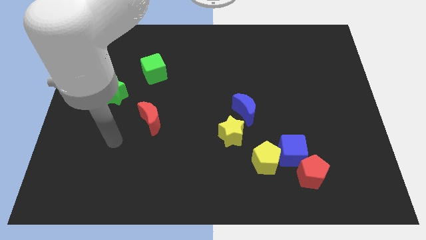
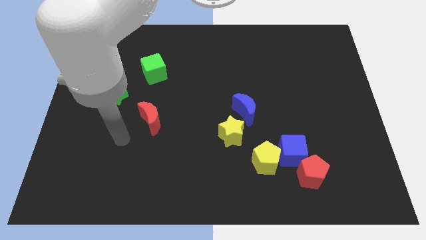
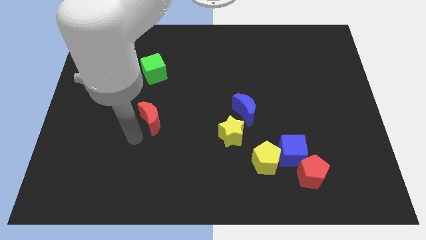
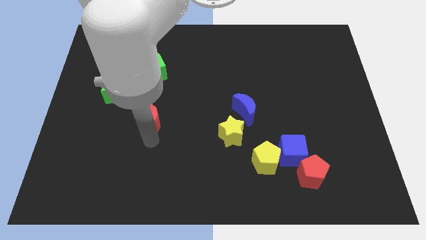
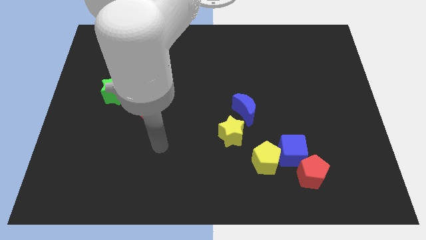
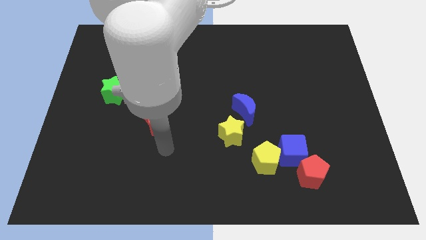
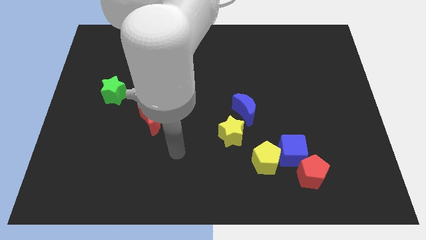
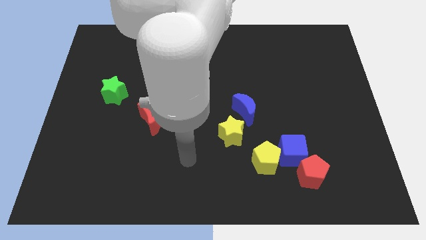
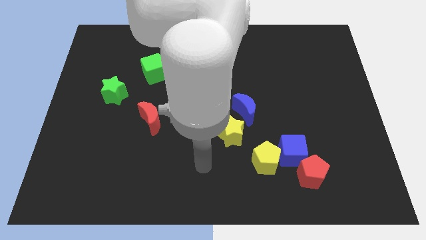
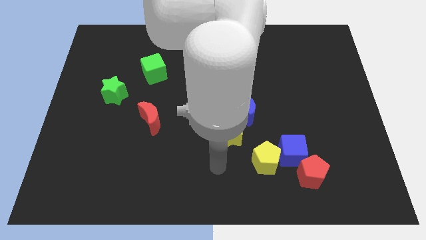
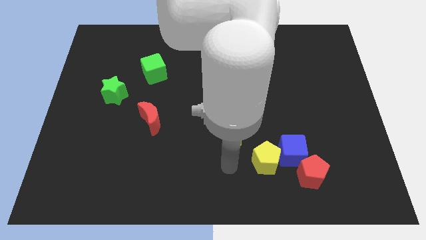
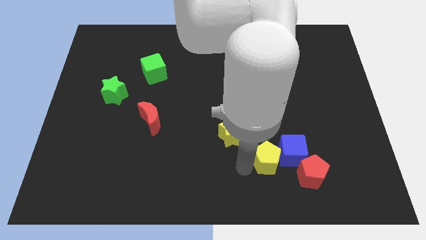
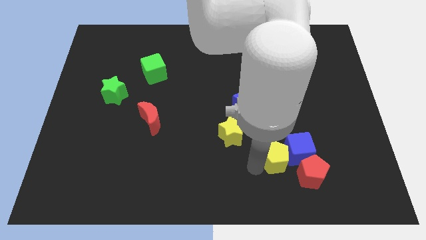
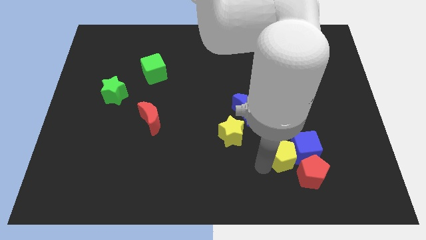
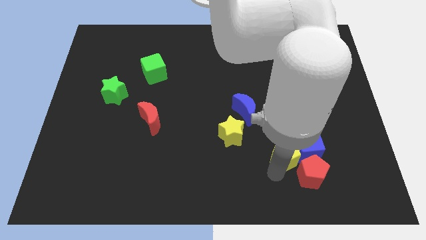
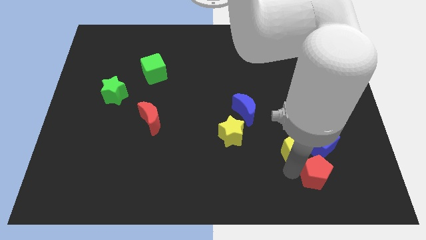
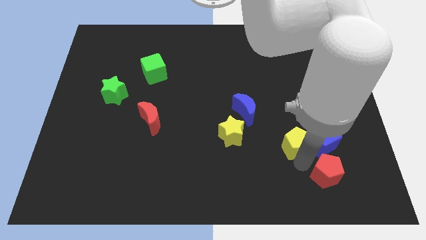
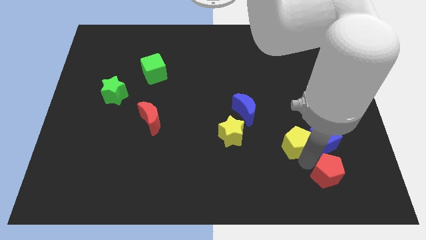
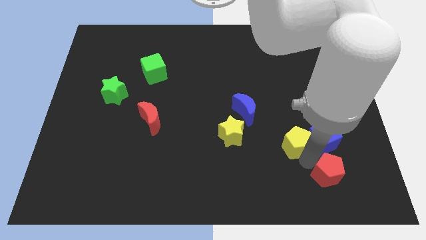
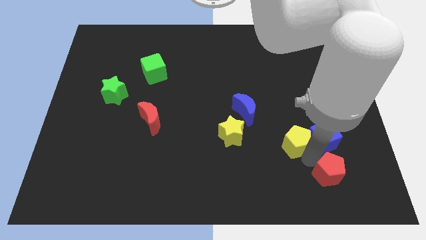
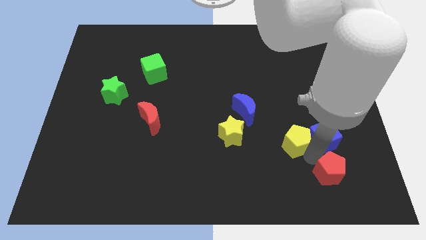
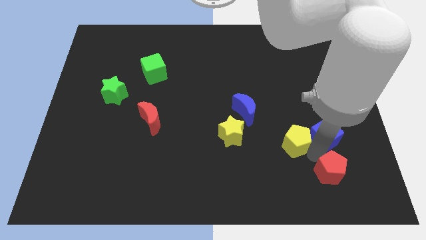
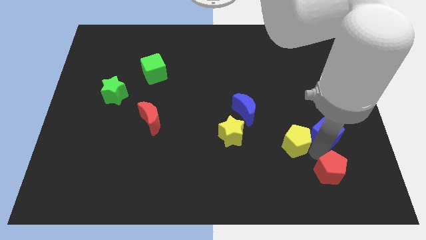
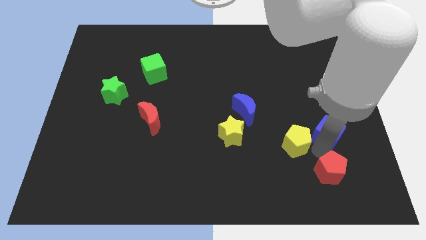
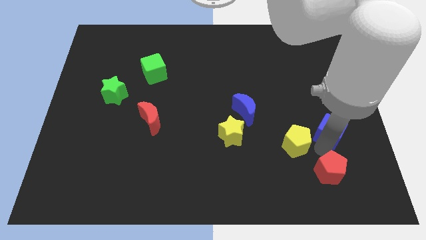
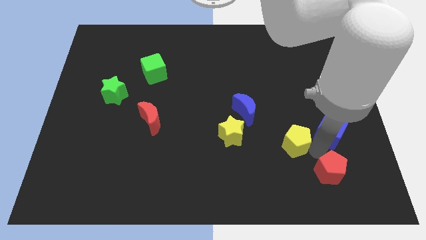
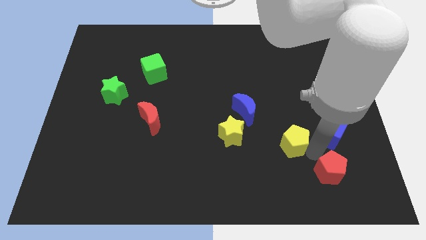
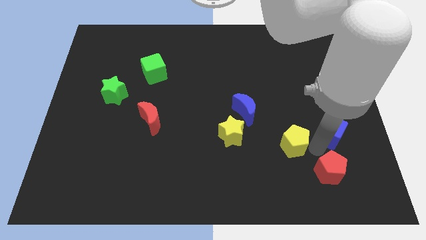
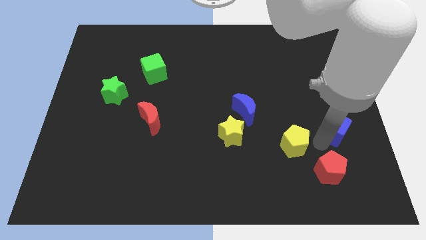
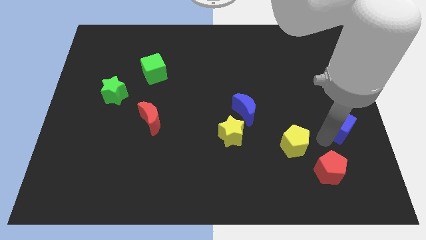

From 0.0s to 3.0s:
separate the blue cube from the yellow pentagon and red pentagon

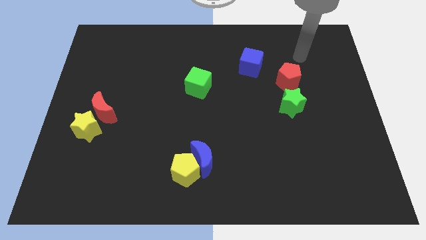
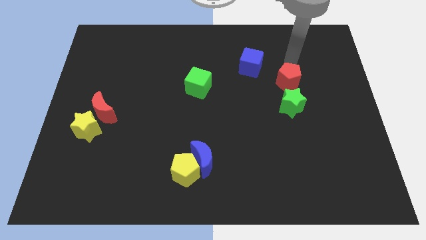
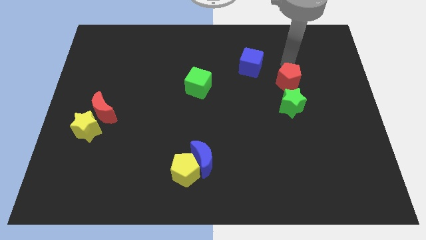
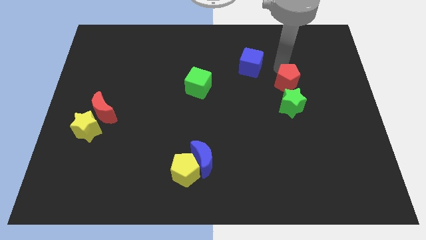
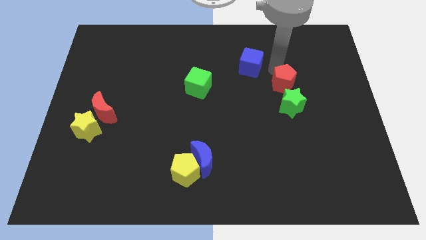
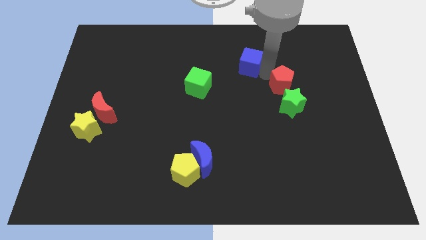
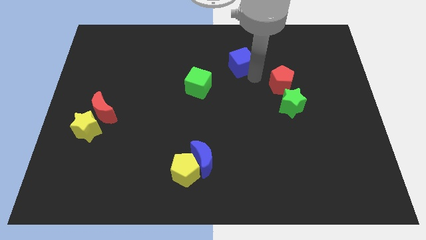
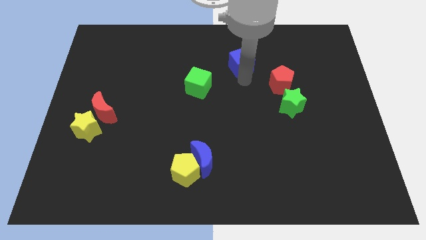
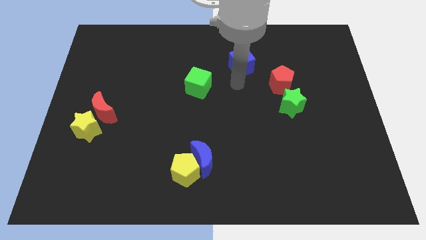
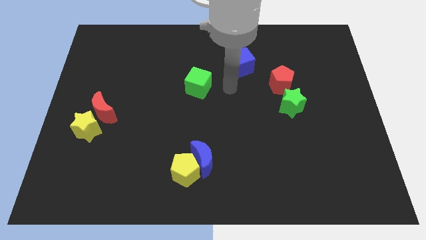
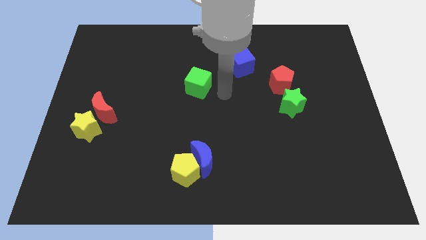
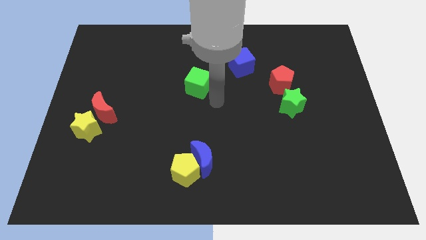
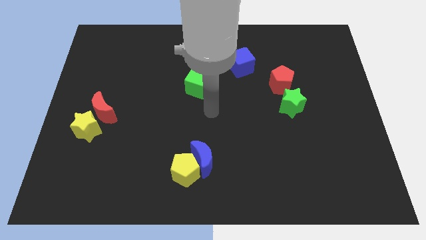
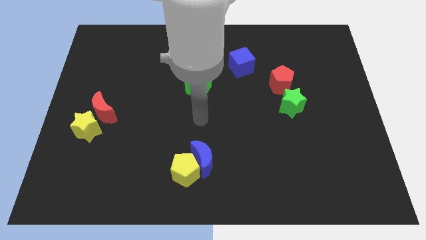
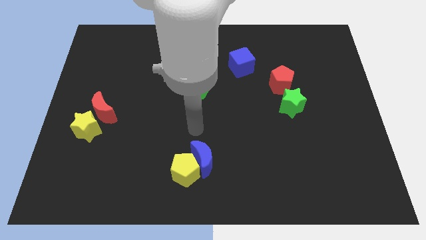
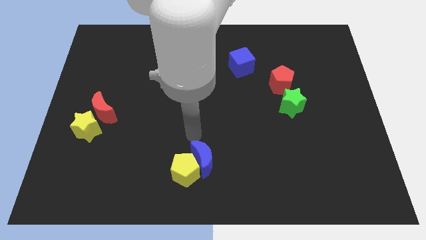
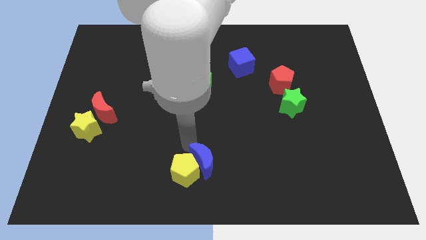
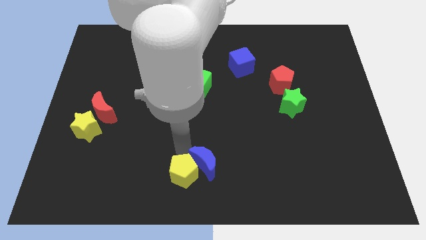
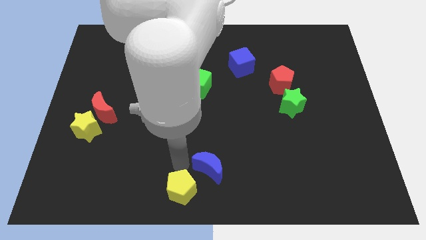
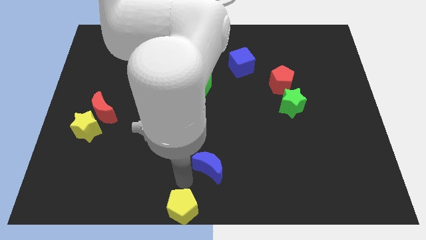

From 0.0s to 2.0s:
separate the blue moon from the yellow pentagon

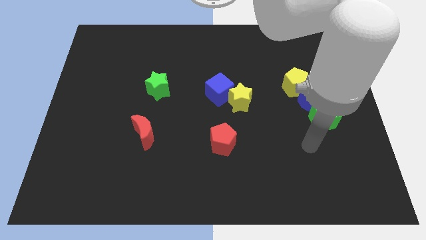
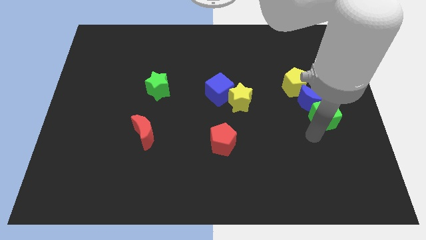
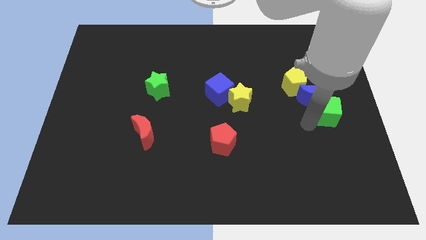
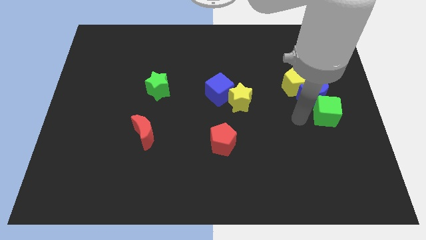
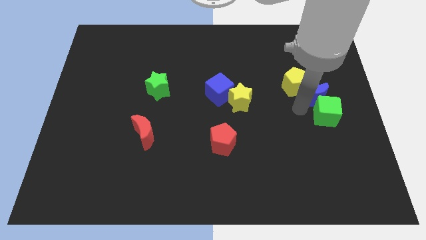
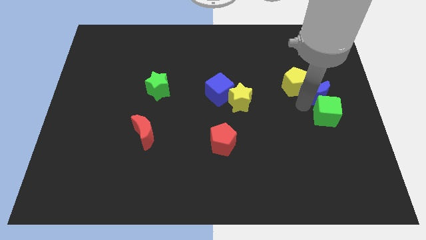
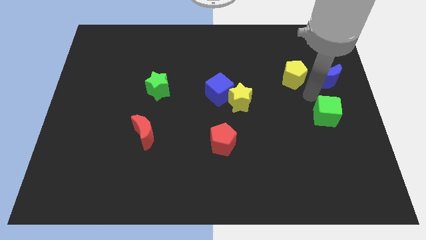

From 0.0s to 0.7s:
separate the green cube from the blue moon

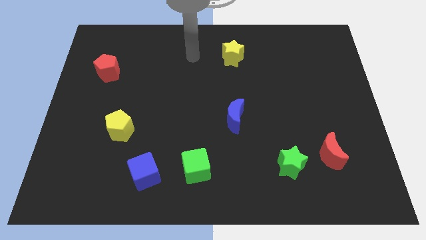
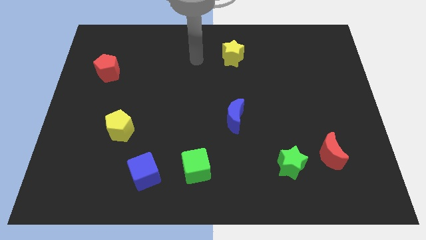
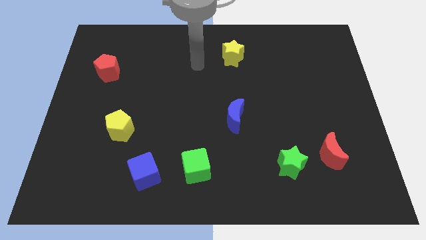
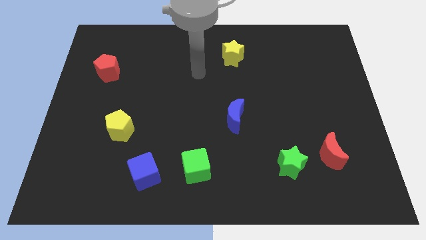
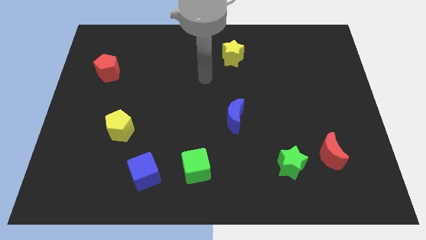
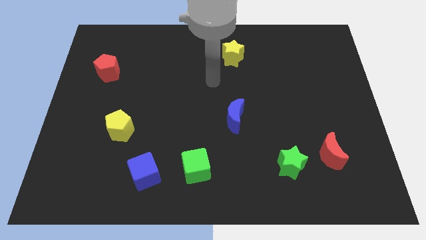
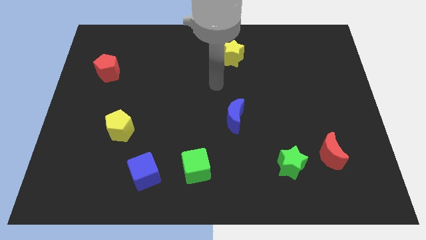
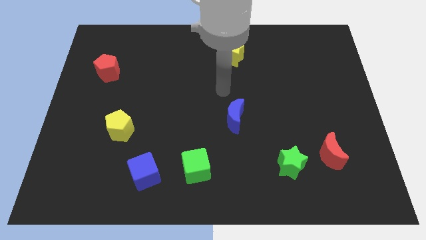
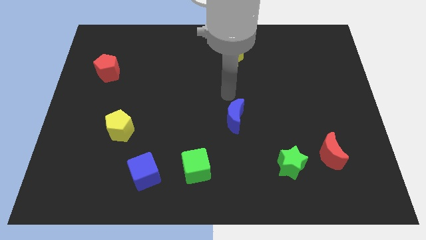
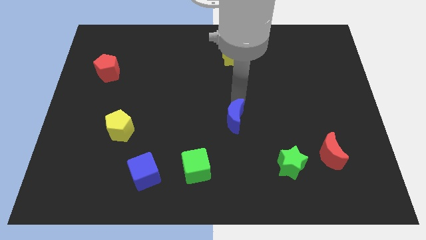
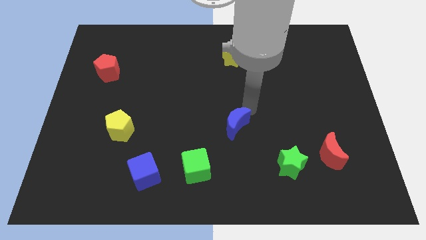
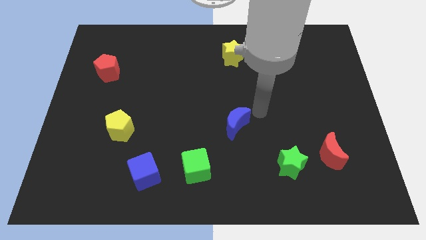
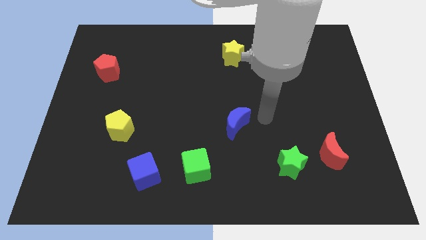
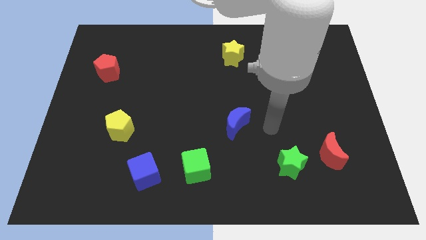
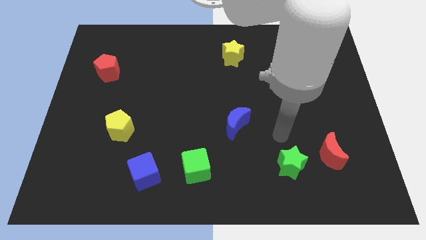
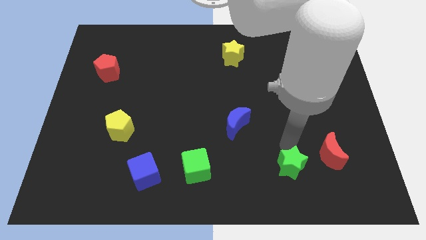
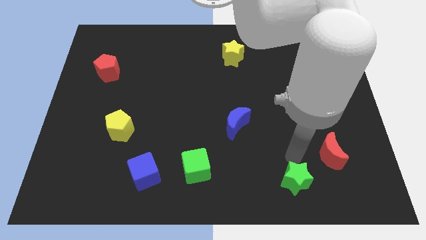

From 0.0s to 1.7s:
move the red moon away from the green star

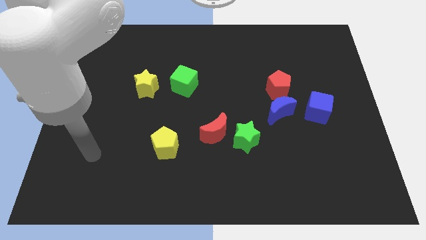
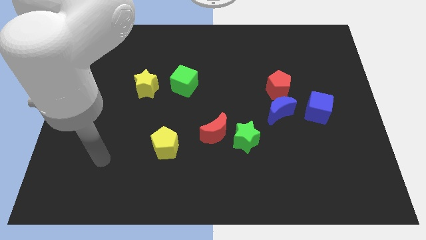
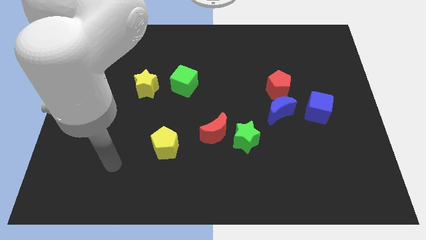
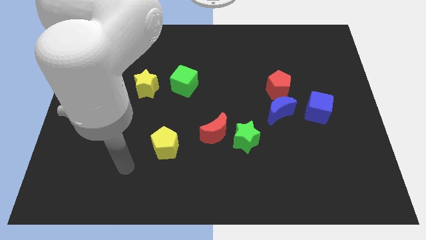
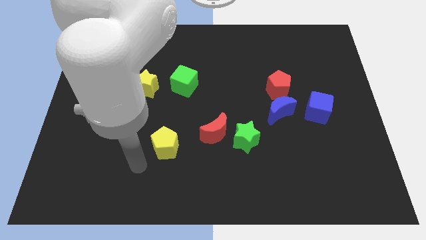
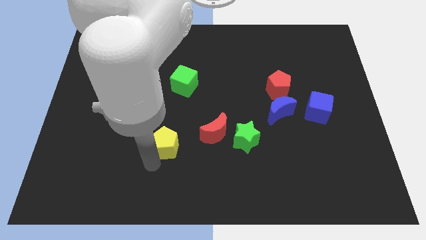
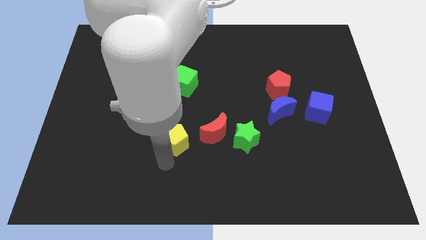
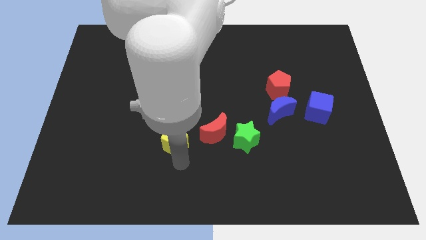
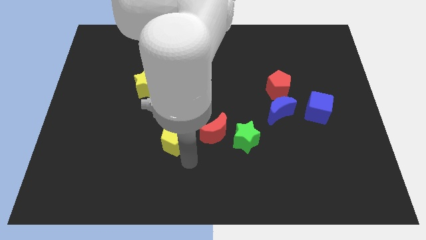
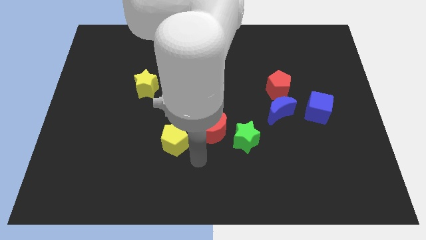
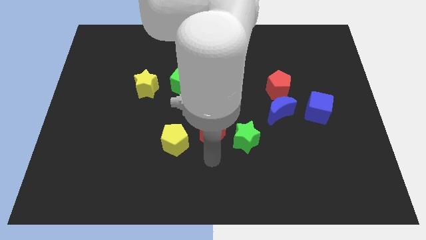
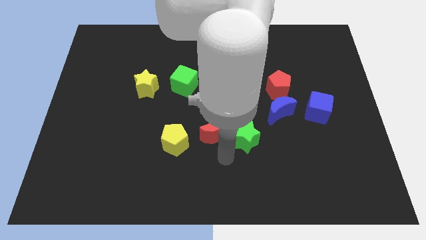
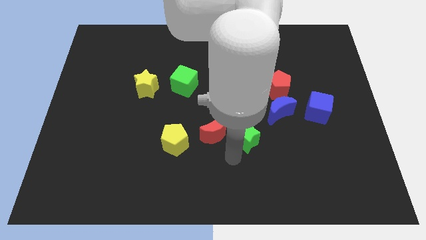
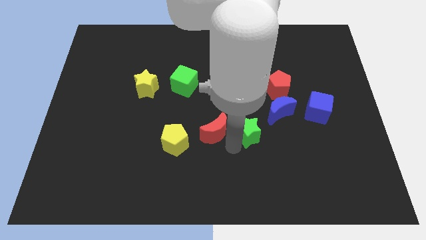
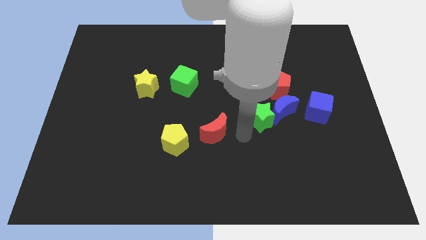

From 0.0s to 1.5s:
separate the red moon from the green star

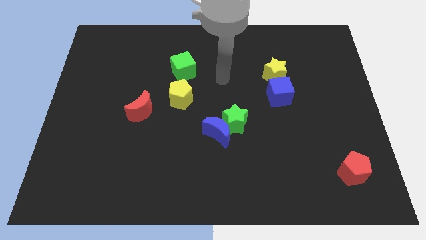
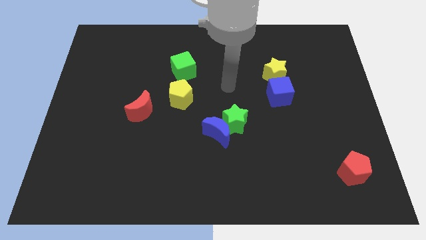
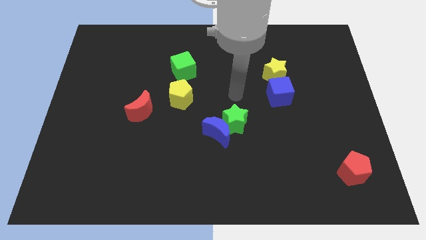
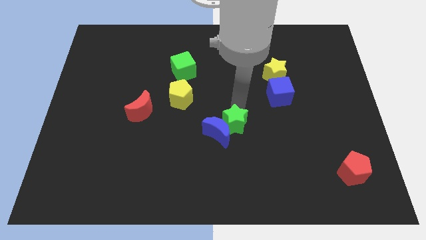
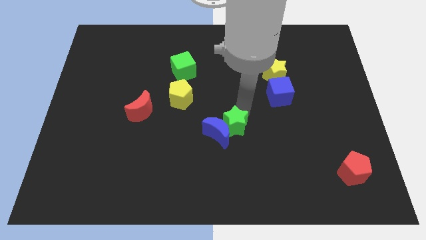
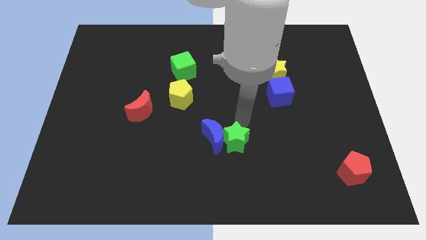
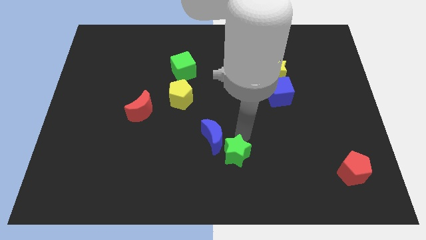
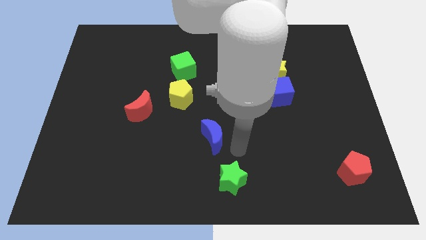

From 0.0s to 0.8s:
separate the blue moon from the green star
